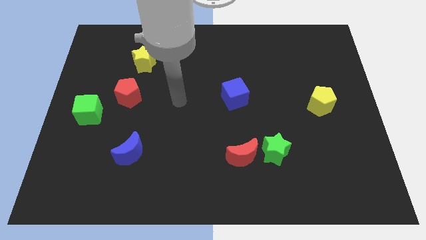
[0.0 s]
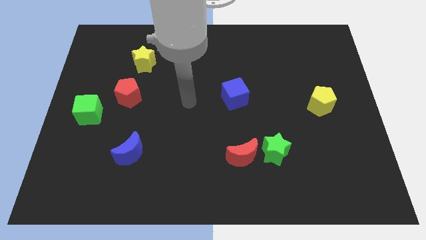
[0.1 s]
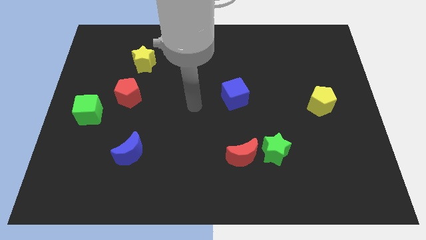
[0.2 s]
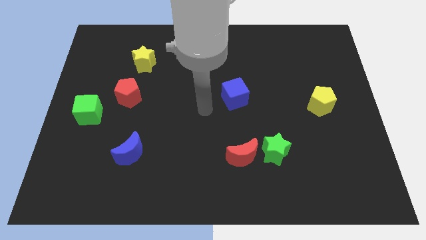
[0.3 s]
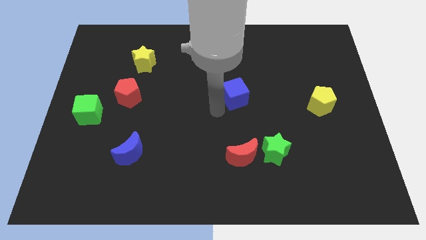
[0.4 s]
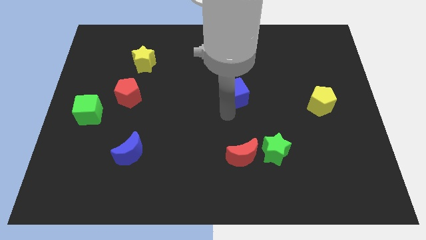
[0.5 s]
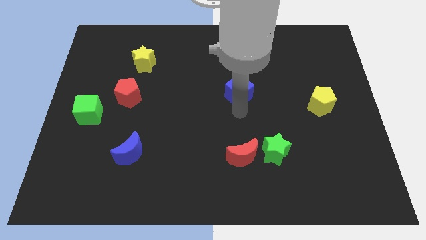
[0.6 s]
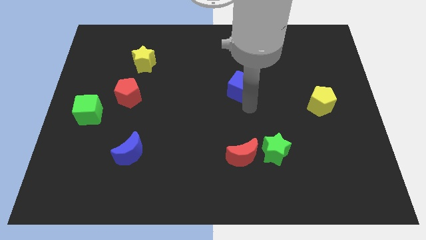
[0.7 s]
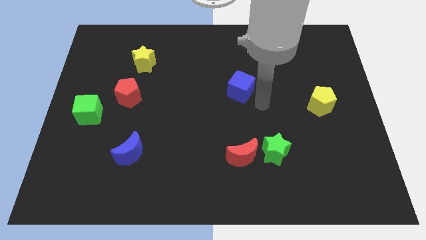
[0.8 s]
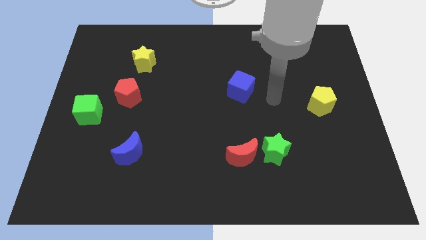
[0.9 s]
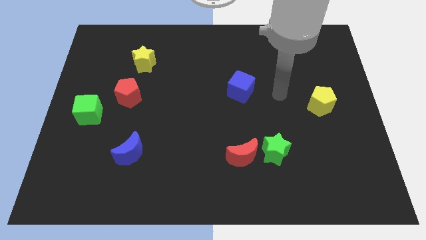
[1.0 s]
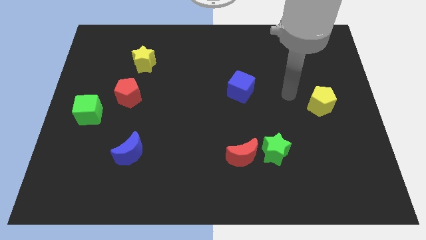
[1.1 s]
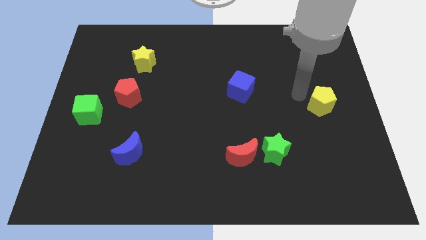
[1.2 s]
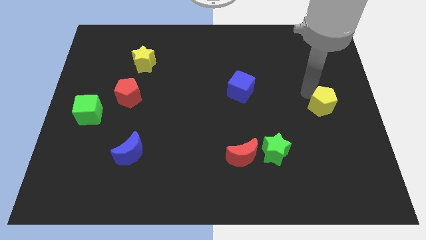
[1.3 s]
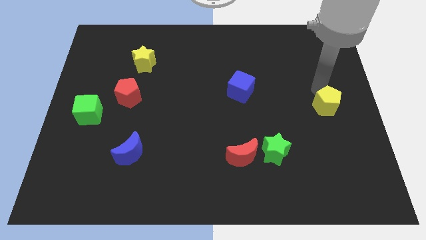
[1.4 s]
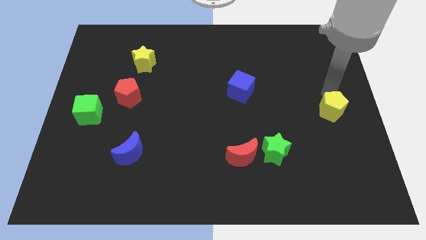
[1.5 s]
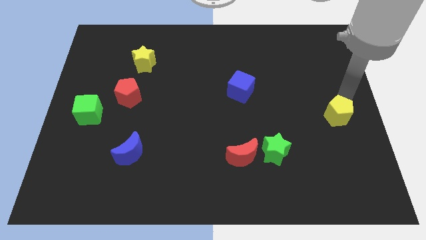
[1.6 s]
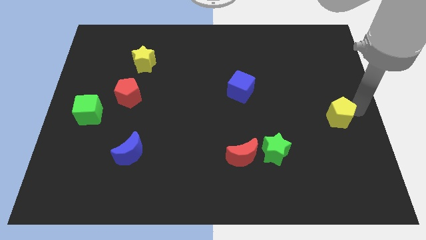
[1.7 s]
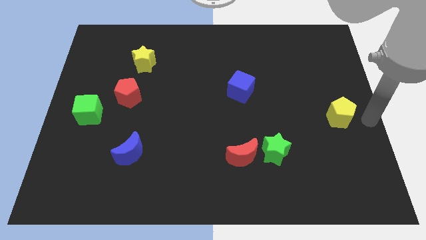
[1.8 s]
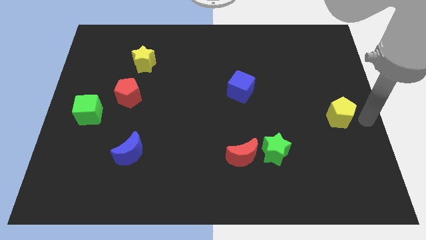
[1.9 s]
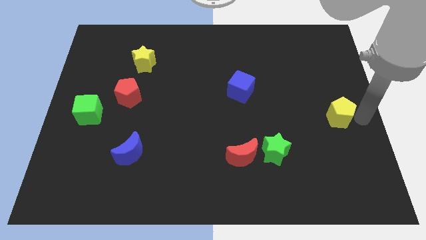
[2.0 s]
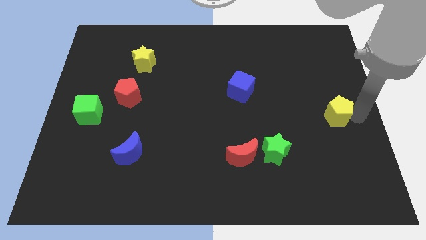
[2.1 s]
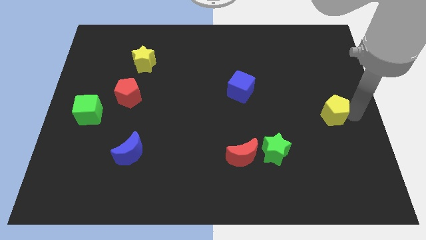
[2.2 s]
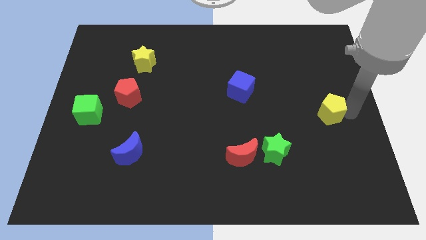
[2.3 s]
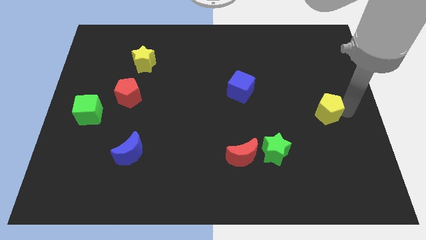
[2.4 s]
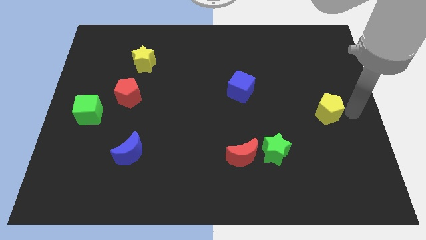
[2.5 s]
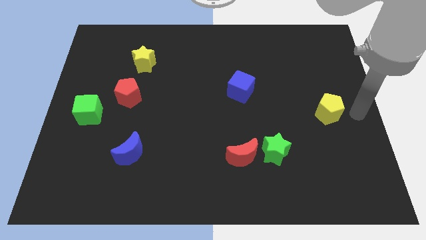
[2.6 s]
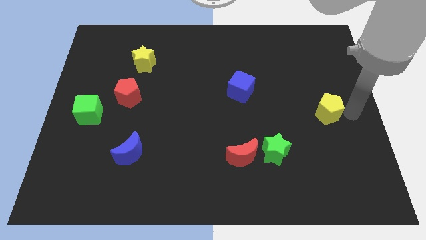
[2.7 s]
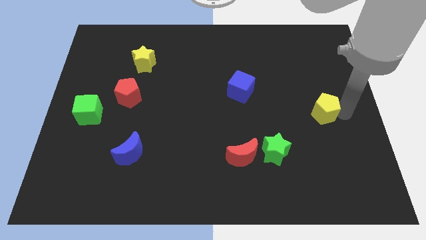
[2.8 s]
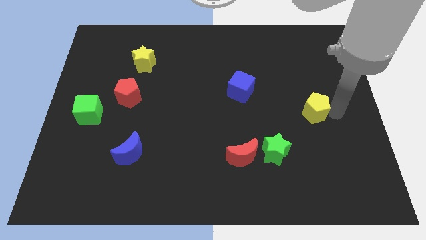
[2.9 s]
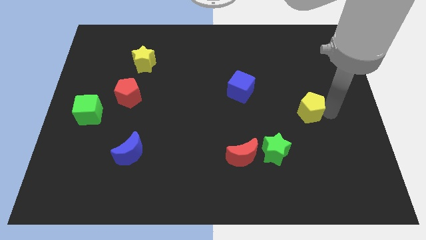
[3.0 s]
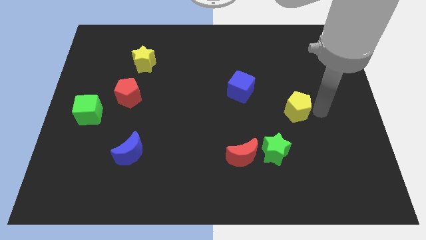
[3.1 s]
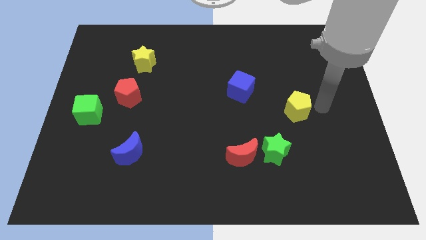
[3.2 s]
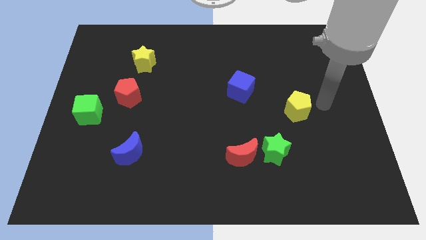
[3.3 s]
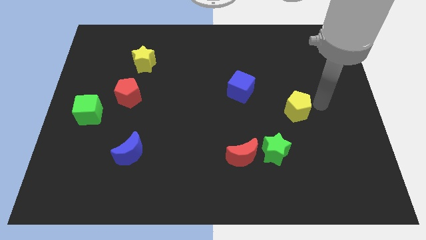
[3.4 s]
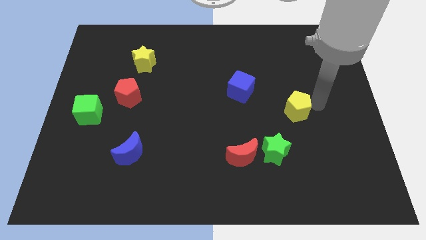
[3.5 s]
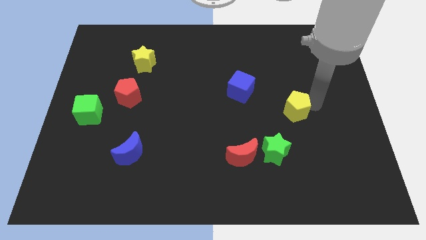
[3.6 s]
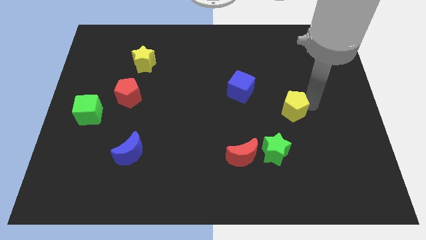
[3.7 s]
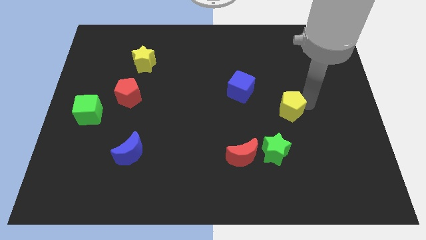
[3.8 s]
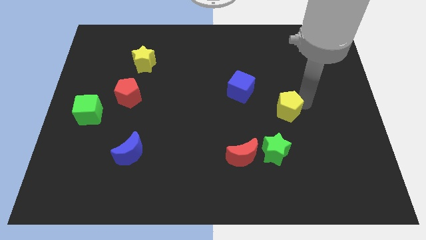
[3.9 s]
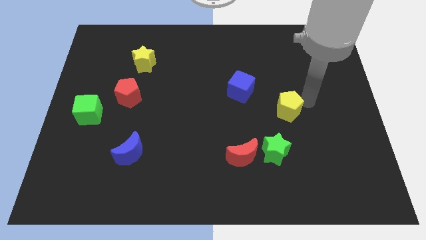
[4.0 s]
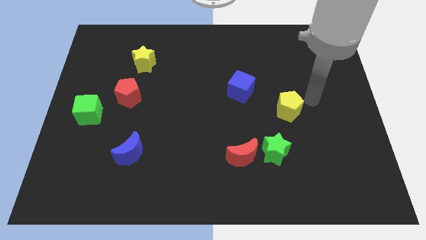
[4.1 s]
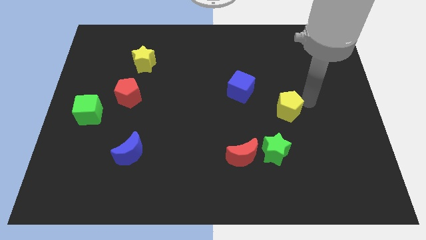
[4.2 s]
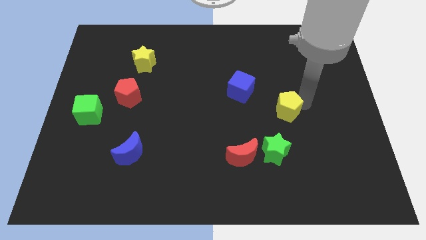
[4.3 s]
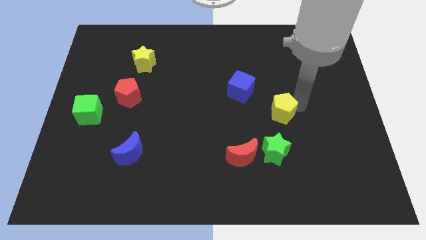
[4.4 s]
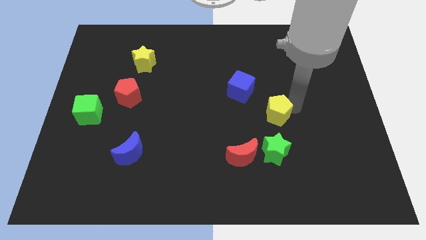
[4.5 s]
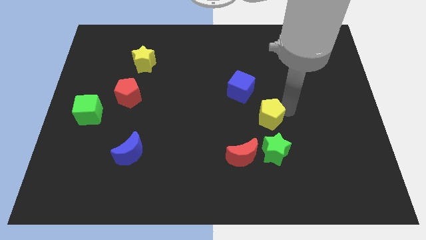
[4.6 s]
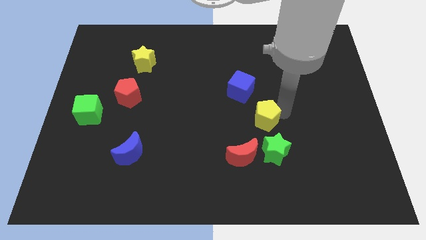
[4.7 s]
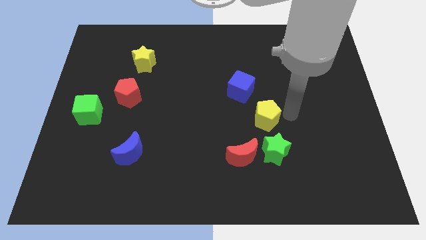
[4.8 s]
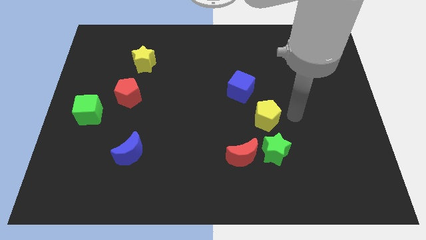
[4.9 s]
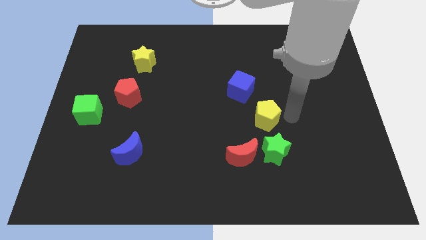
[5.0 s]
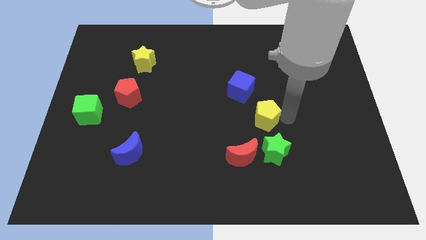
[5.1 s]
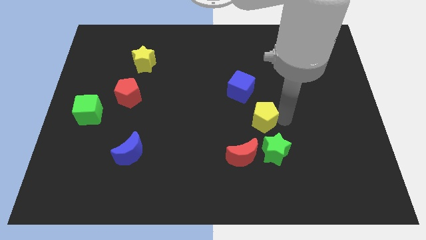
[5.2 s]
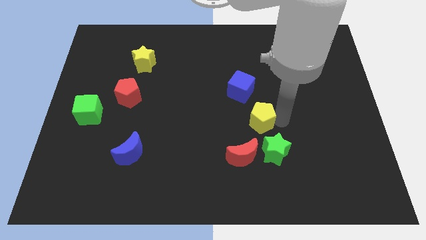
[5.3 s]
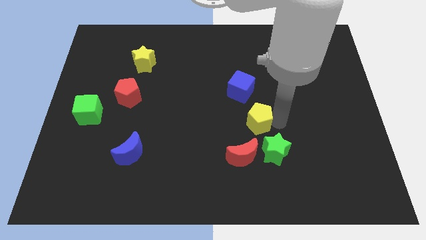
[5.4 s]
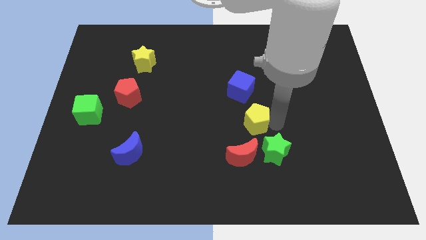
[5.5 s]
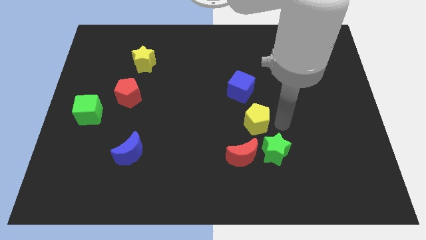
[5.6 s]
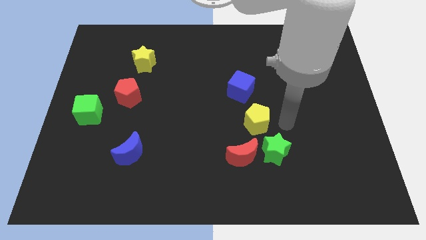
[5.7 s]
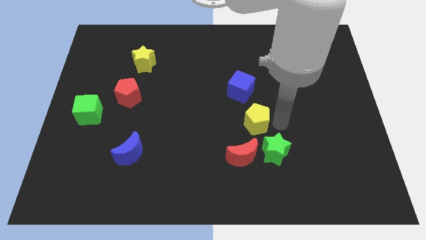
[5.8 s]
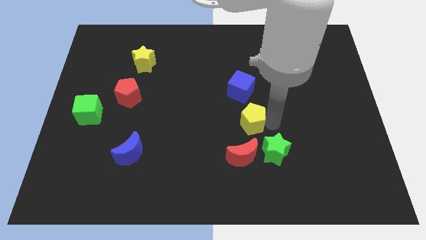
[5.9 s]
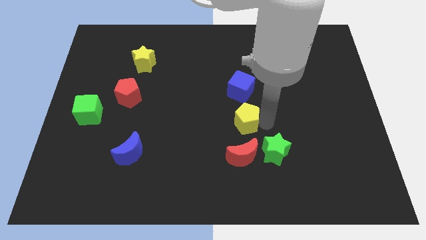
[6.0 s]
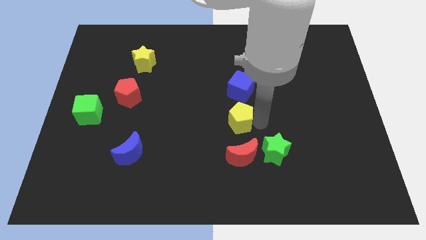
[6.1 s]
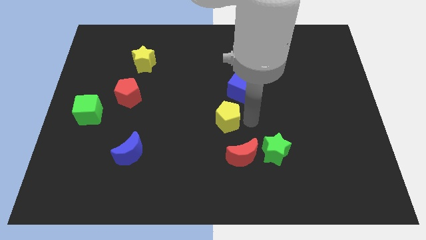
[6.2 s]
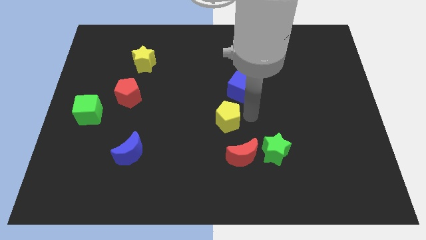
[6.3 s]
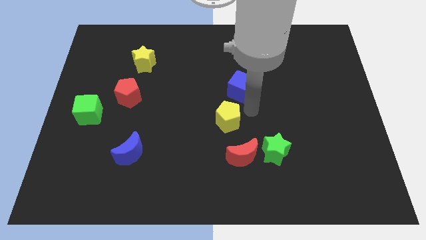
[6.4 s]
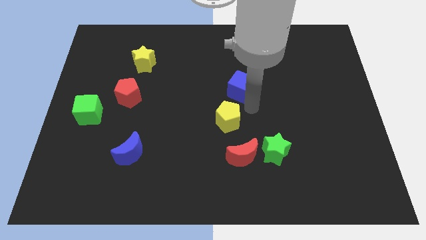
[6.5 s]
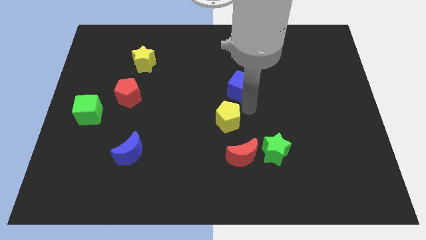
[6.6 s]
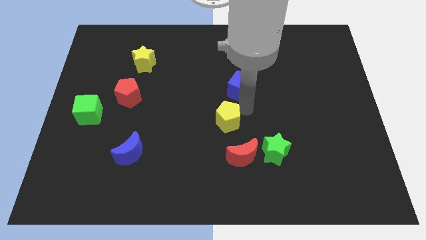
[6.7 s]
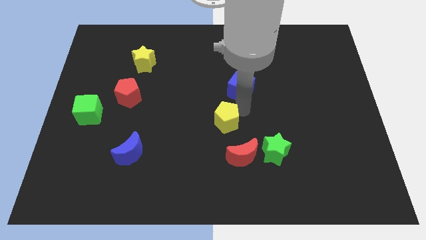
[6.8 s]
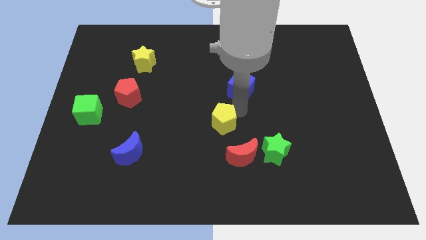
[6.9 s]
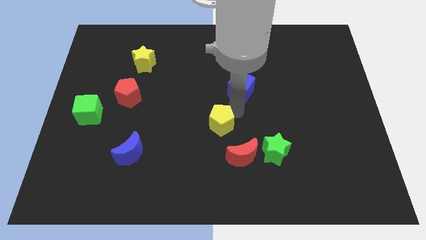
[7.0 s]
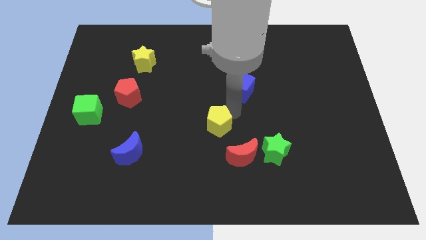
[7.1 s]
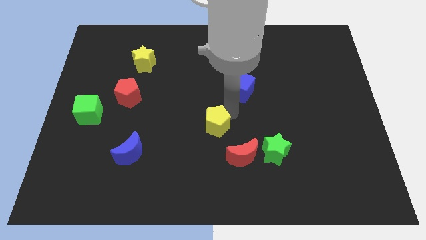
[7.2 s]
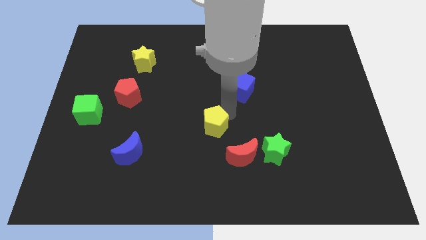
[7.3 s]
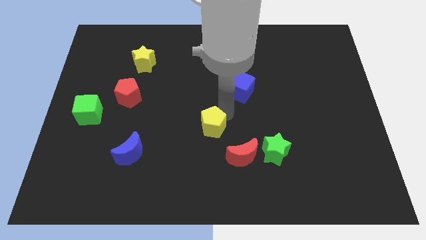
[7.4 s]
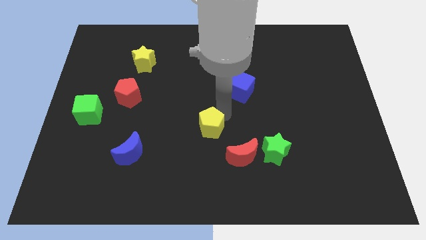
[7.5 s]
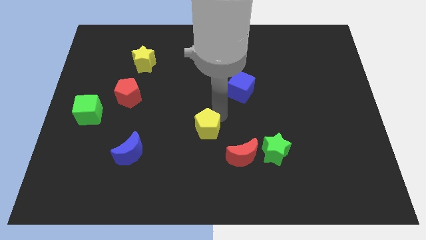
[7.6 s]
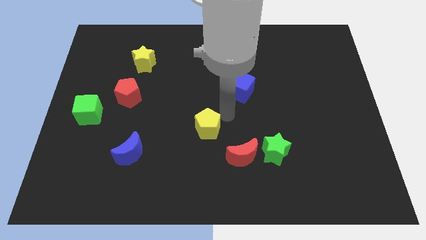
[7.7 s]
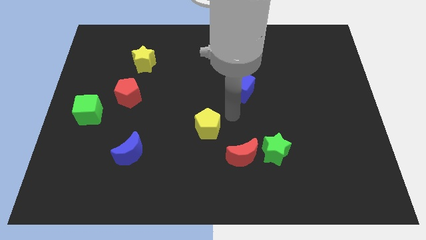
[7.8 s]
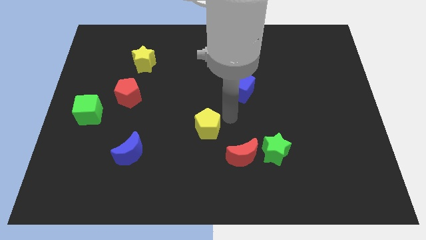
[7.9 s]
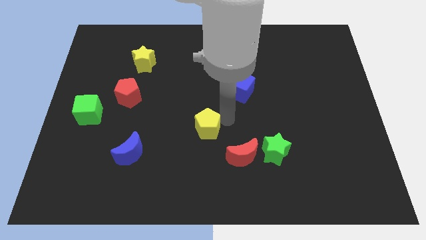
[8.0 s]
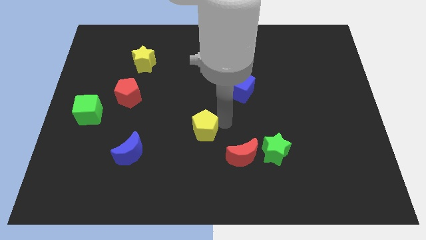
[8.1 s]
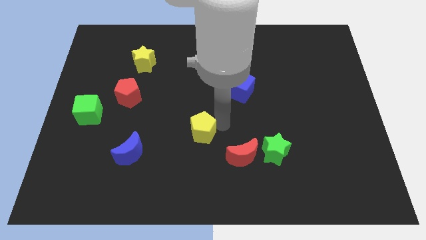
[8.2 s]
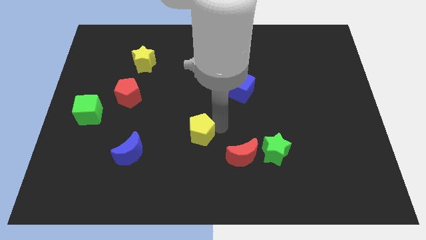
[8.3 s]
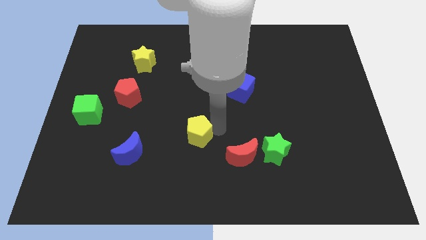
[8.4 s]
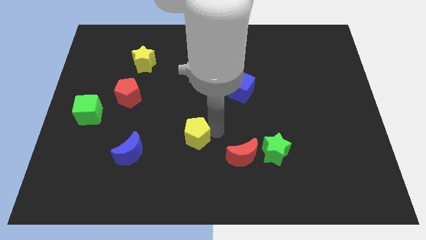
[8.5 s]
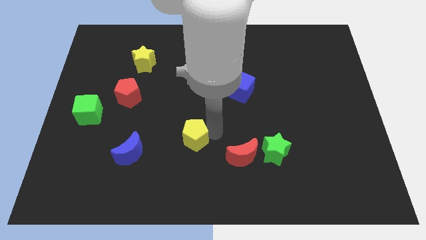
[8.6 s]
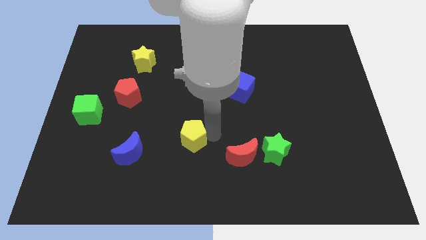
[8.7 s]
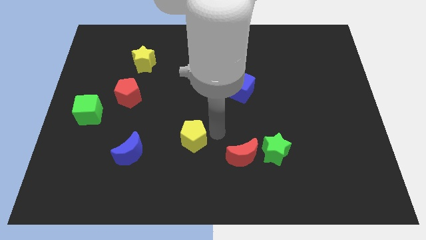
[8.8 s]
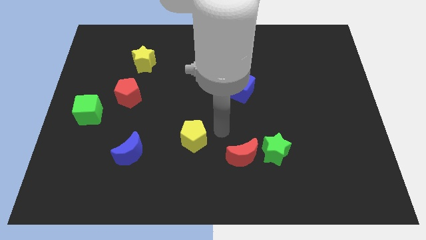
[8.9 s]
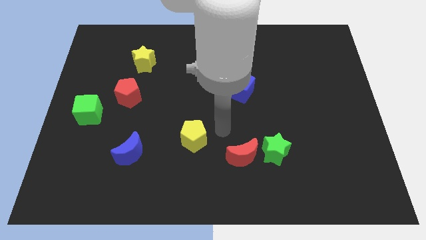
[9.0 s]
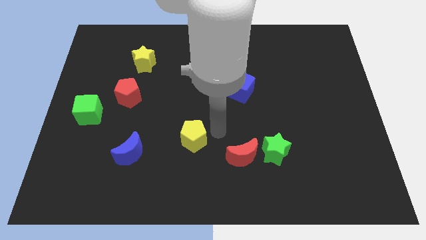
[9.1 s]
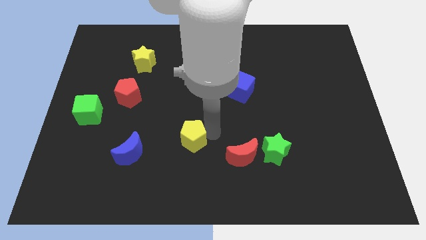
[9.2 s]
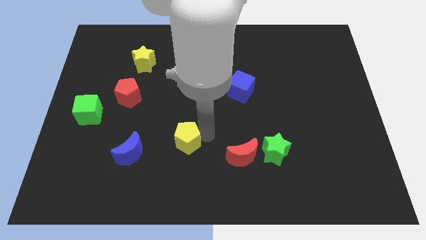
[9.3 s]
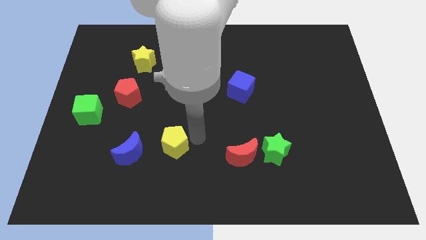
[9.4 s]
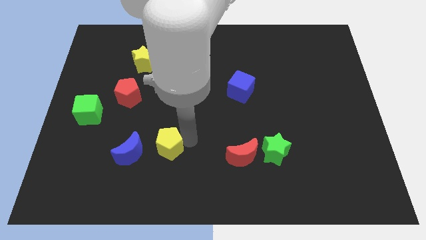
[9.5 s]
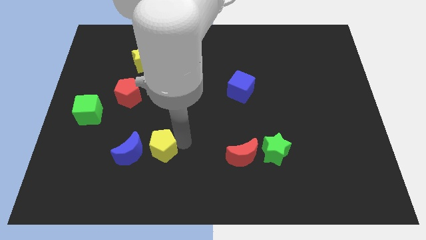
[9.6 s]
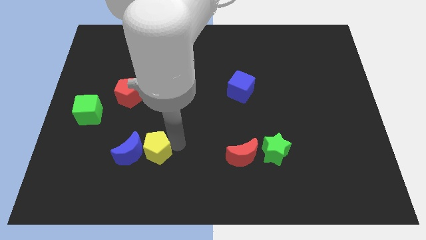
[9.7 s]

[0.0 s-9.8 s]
slide the yellow pentagon next to the blue moon
